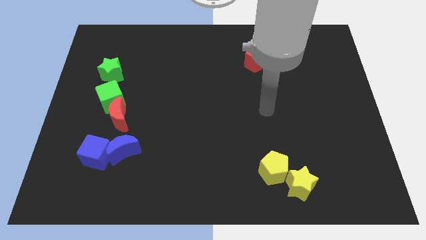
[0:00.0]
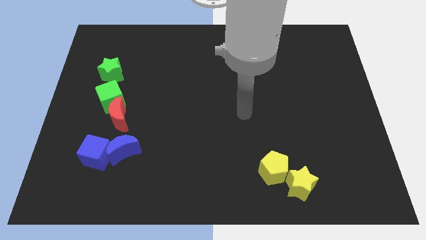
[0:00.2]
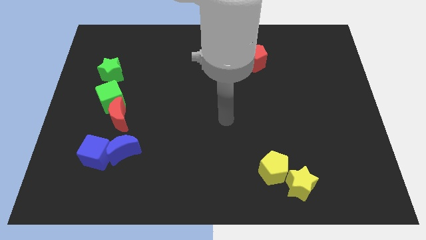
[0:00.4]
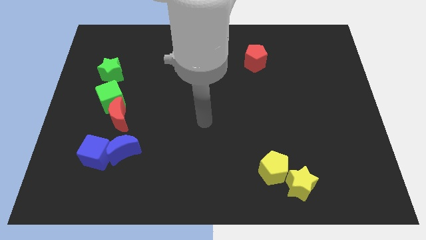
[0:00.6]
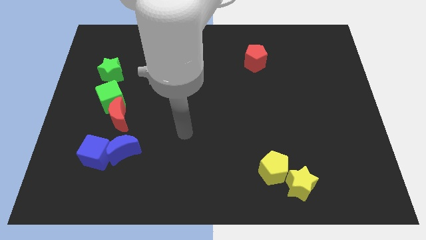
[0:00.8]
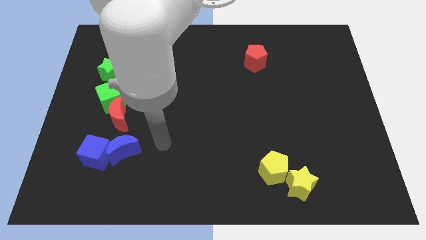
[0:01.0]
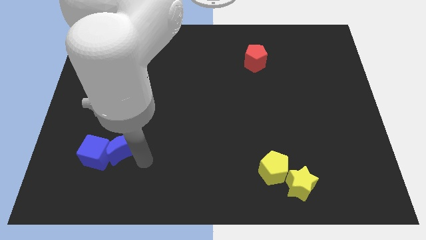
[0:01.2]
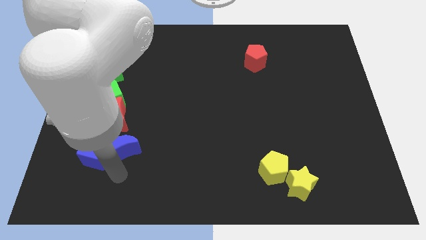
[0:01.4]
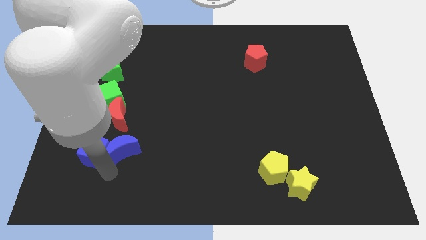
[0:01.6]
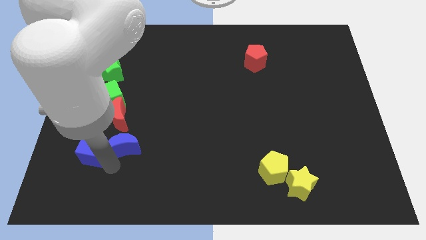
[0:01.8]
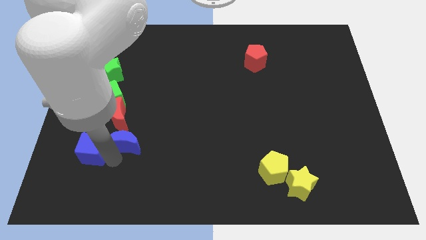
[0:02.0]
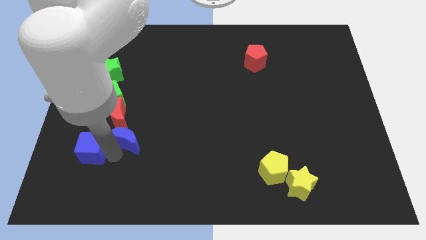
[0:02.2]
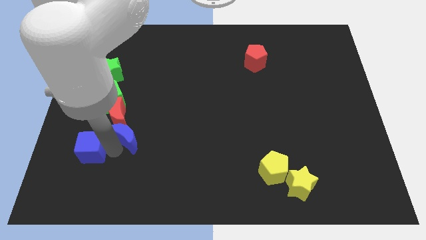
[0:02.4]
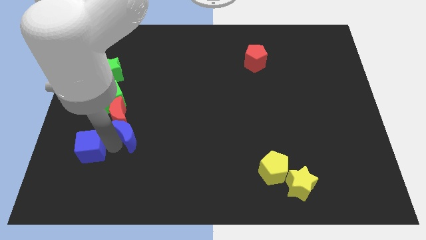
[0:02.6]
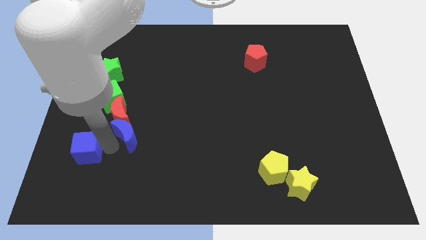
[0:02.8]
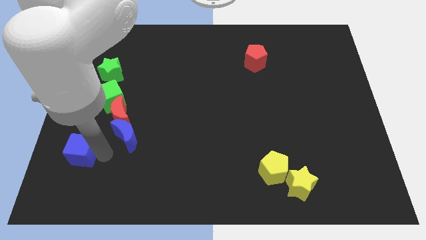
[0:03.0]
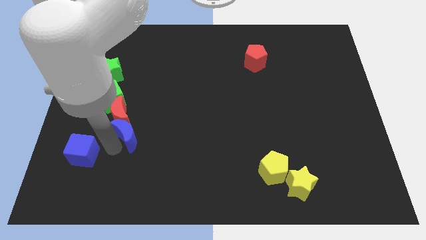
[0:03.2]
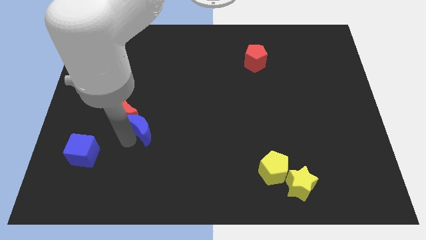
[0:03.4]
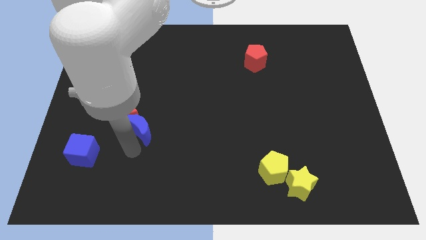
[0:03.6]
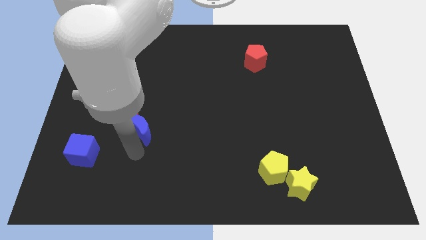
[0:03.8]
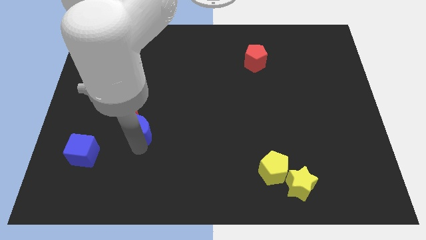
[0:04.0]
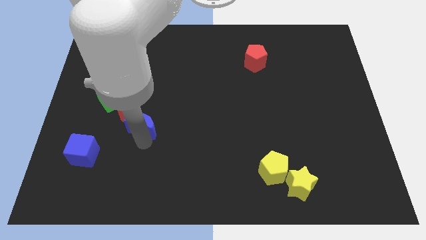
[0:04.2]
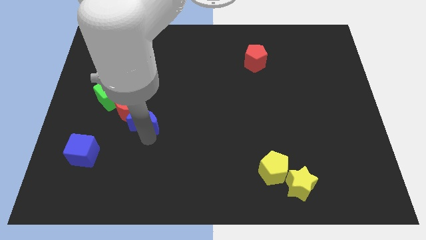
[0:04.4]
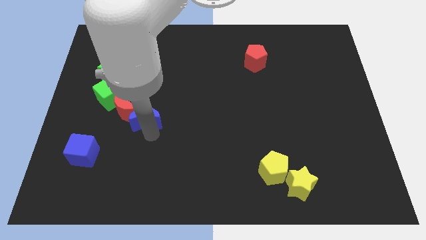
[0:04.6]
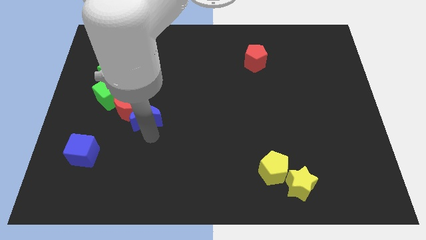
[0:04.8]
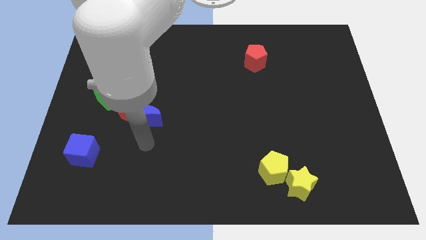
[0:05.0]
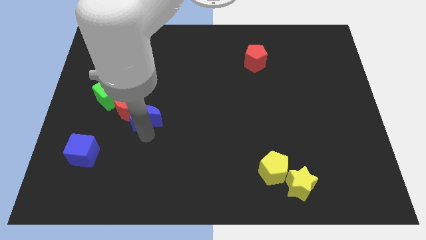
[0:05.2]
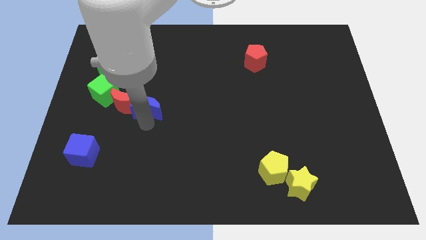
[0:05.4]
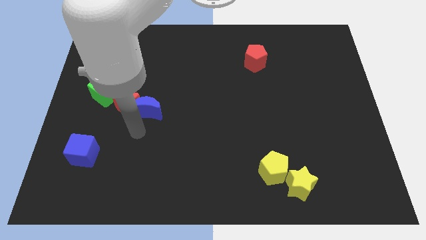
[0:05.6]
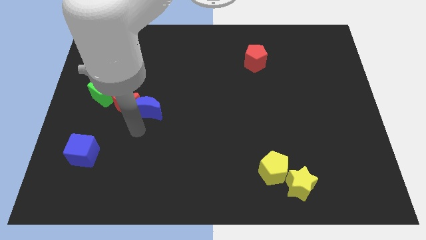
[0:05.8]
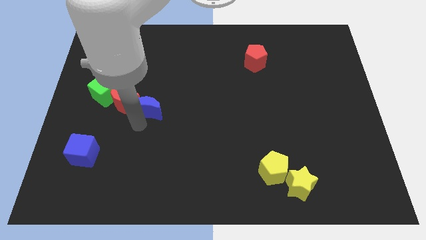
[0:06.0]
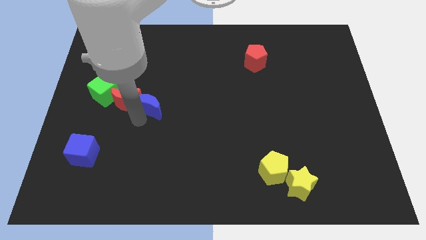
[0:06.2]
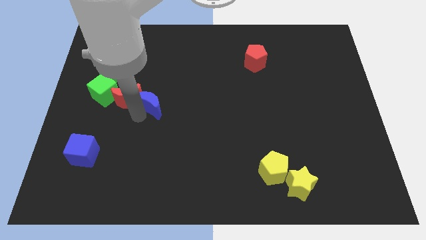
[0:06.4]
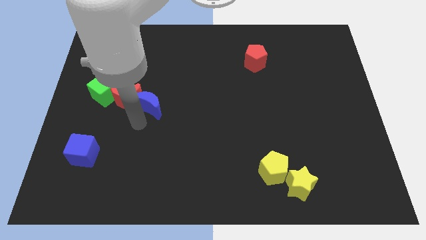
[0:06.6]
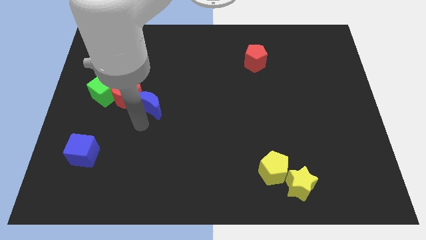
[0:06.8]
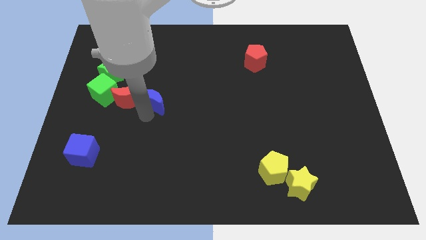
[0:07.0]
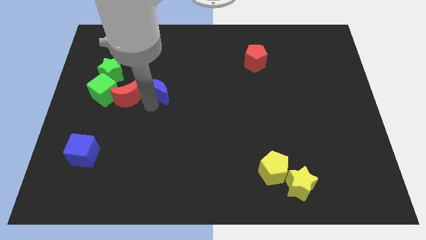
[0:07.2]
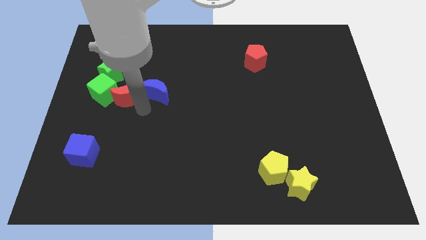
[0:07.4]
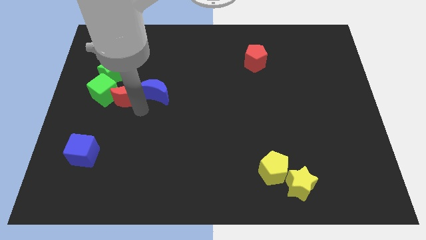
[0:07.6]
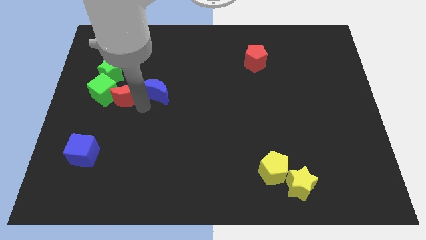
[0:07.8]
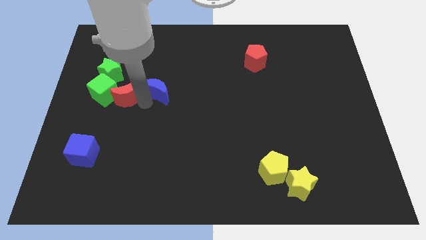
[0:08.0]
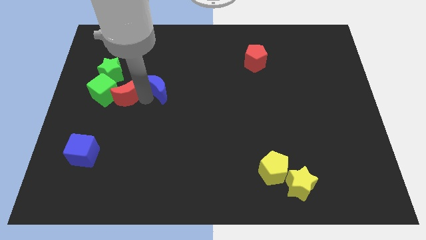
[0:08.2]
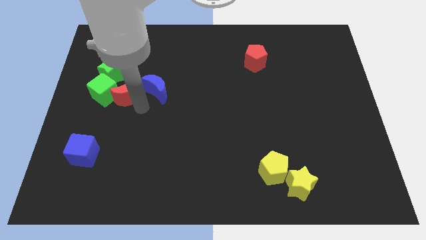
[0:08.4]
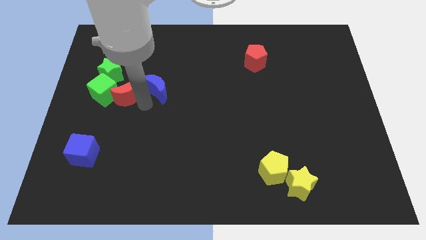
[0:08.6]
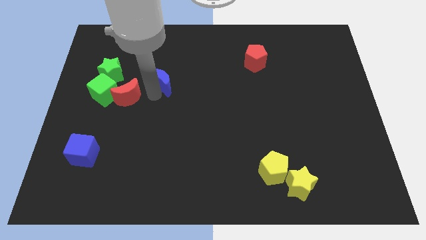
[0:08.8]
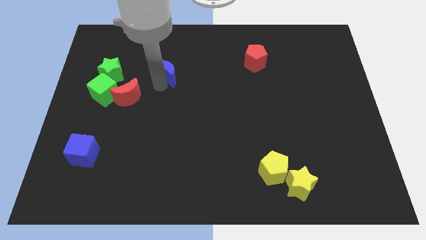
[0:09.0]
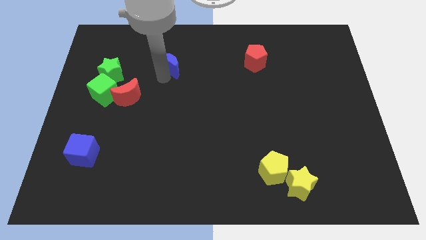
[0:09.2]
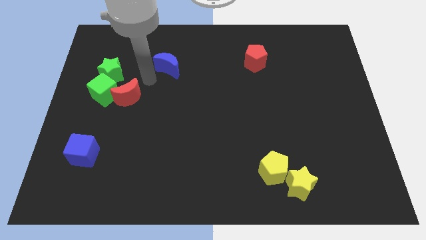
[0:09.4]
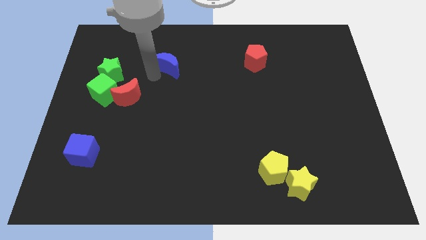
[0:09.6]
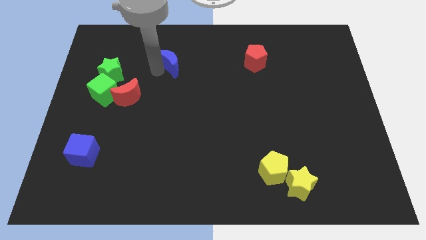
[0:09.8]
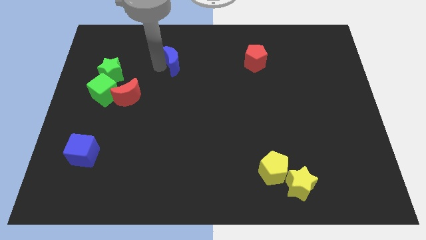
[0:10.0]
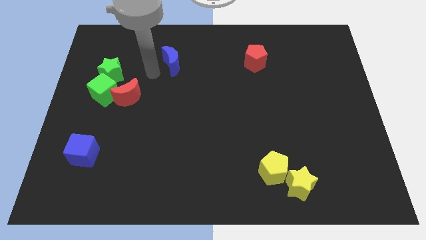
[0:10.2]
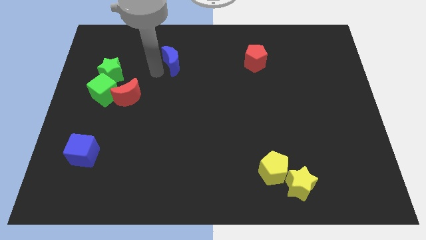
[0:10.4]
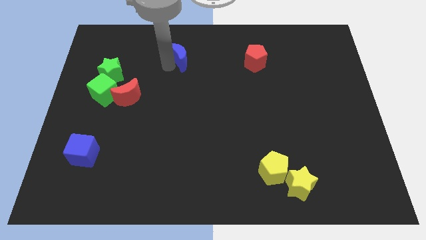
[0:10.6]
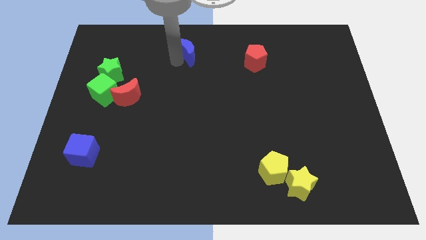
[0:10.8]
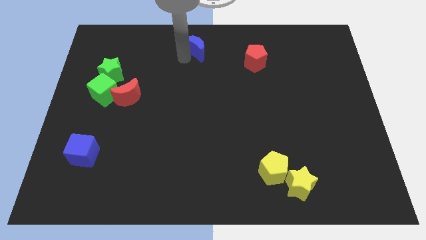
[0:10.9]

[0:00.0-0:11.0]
slide the blue moon to the top side

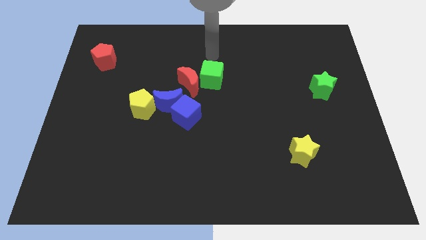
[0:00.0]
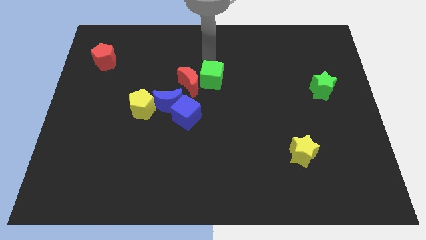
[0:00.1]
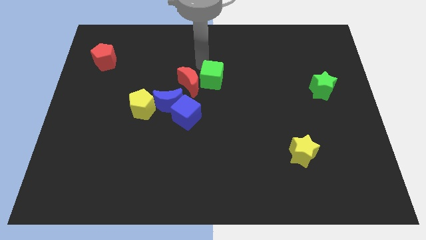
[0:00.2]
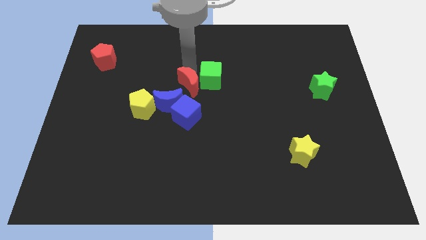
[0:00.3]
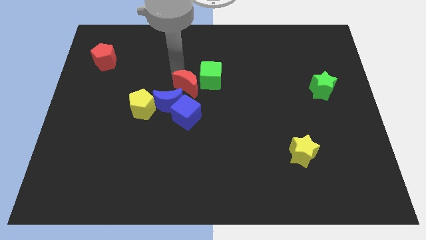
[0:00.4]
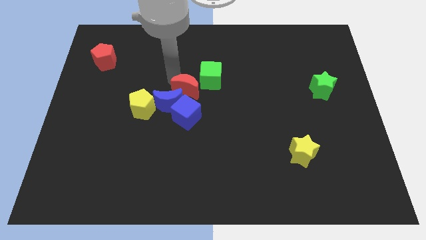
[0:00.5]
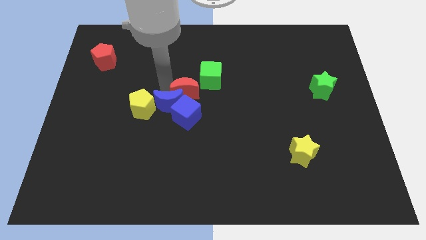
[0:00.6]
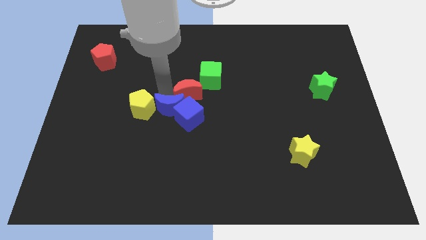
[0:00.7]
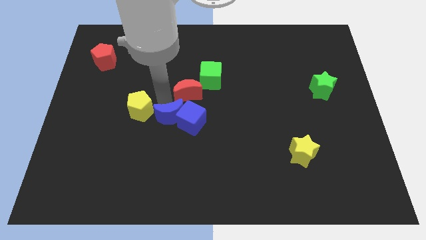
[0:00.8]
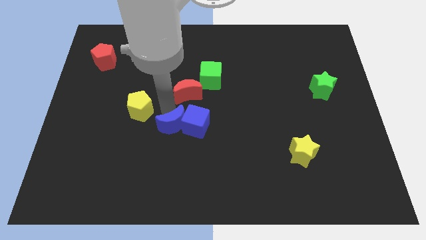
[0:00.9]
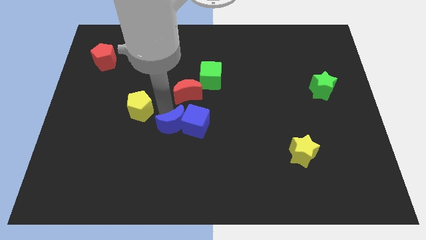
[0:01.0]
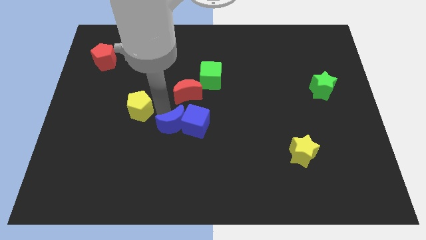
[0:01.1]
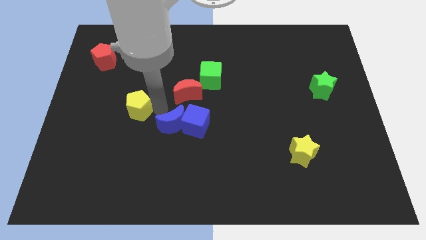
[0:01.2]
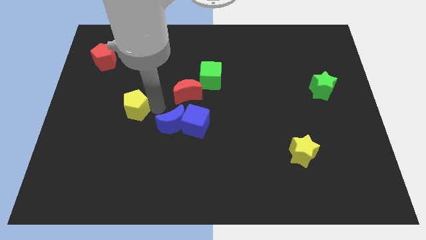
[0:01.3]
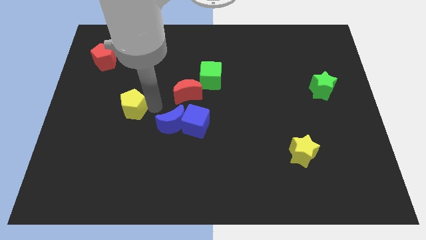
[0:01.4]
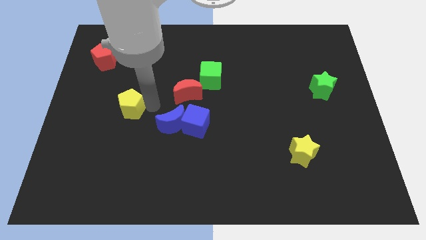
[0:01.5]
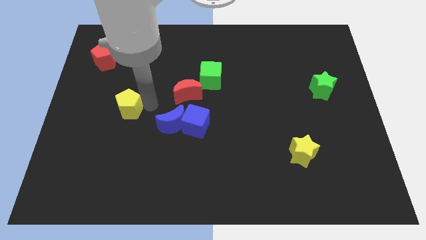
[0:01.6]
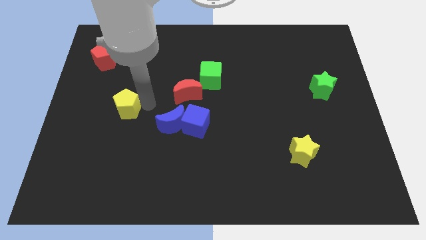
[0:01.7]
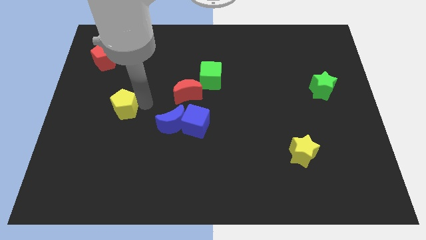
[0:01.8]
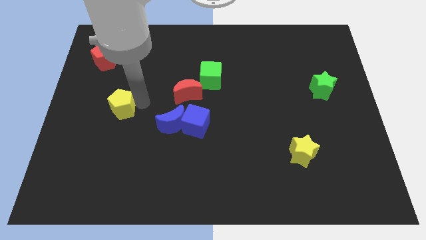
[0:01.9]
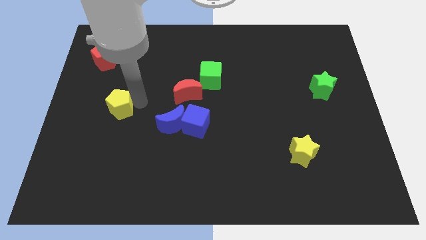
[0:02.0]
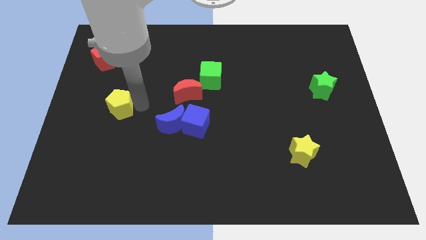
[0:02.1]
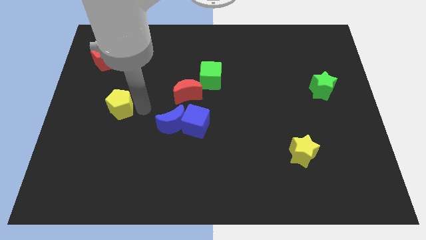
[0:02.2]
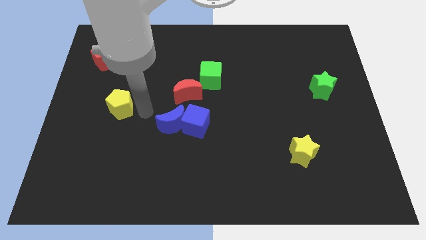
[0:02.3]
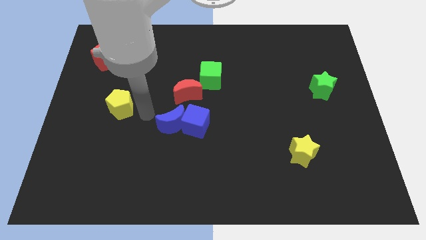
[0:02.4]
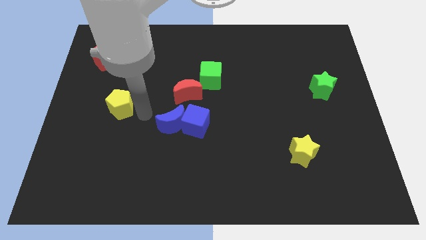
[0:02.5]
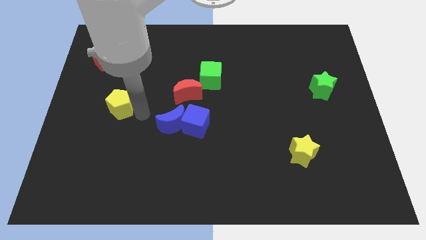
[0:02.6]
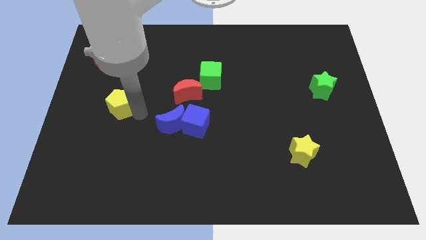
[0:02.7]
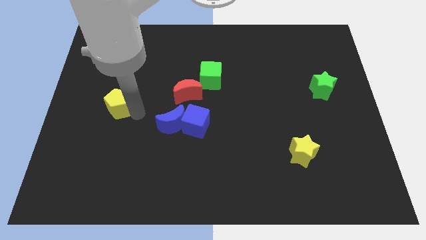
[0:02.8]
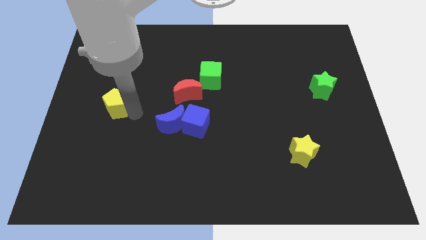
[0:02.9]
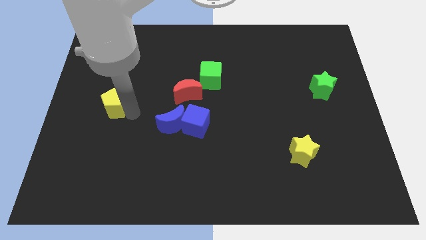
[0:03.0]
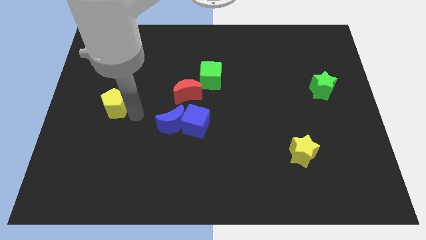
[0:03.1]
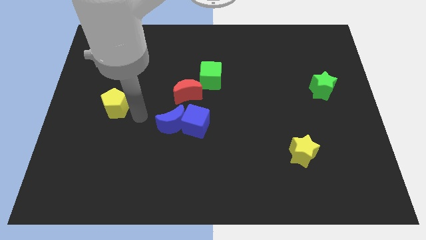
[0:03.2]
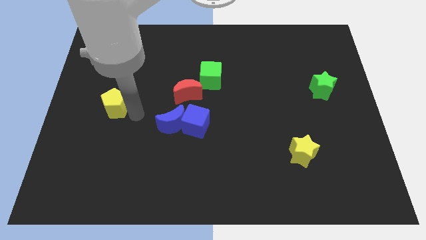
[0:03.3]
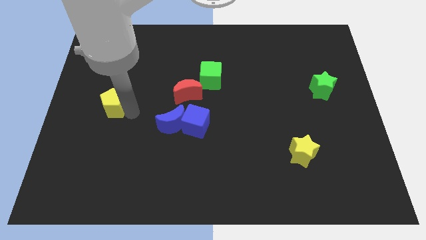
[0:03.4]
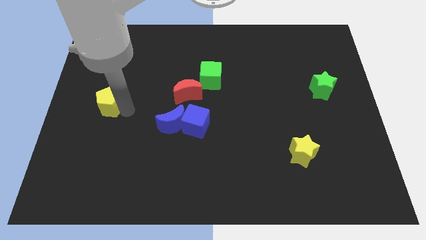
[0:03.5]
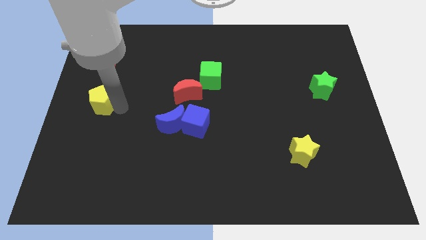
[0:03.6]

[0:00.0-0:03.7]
put the yellow pentagon to the center left
